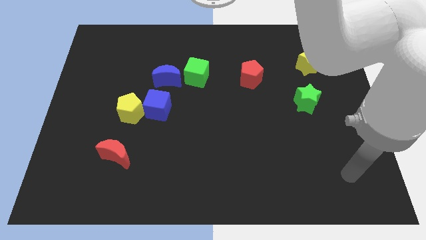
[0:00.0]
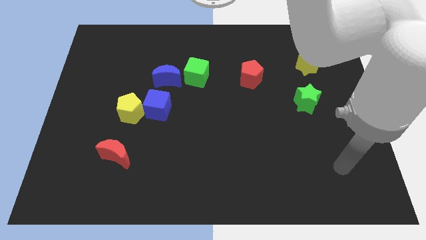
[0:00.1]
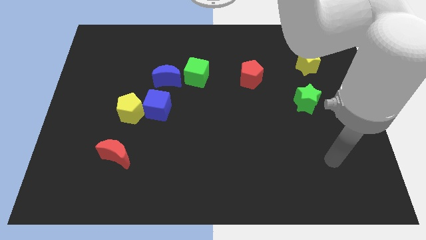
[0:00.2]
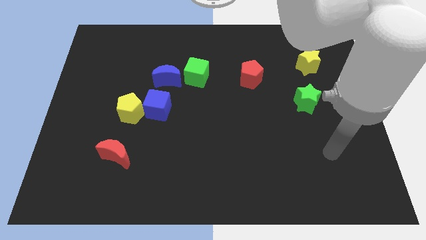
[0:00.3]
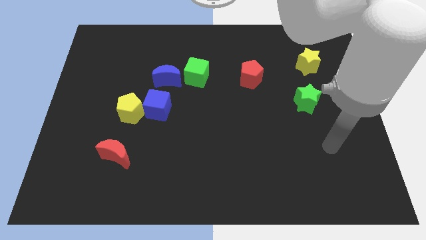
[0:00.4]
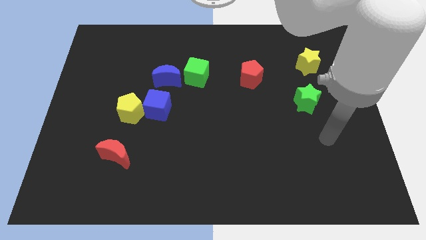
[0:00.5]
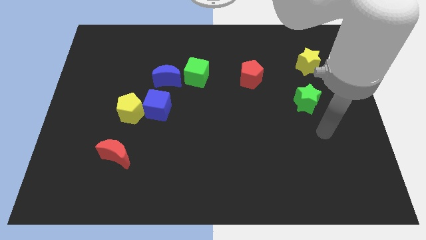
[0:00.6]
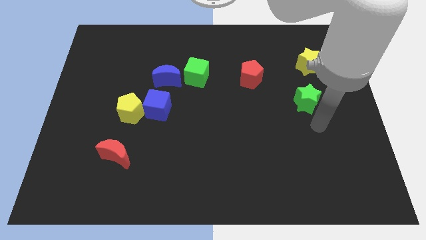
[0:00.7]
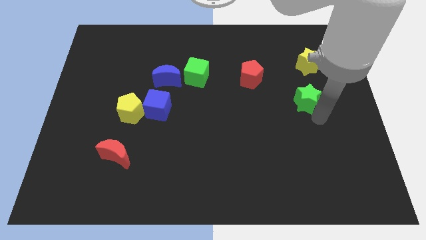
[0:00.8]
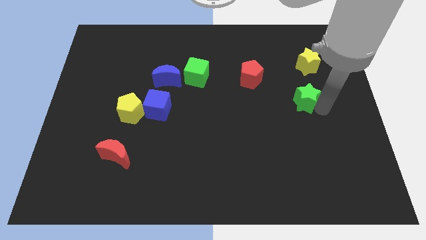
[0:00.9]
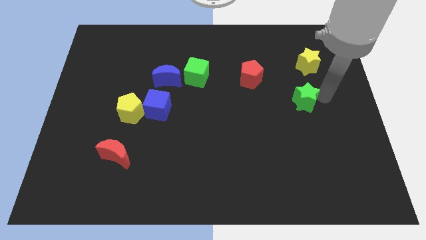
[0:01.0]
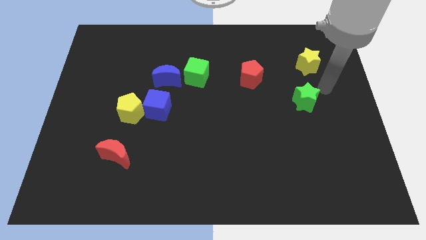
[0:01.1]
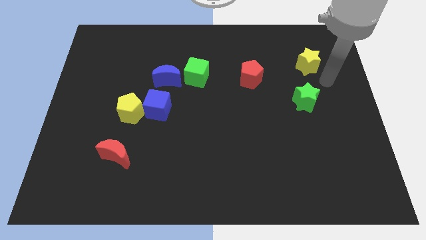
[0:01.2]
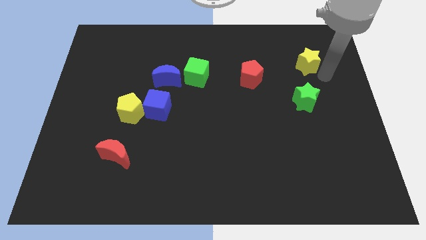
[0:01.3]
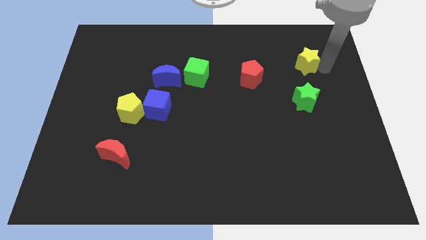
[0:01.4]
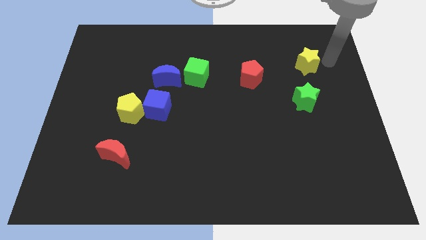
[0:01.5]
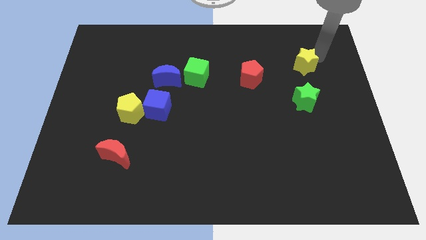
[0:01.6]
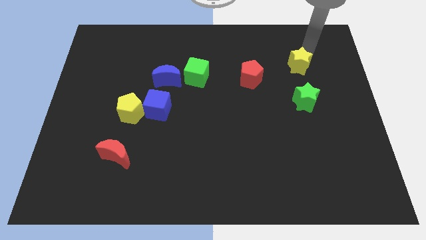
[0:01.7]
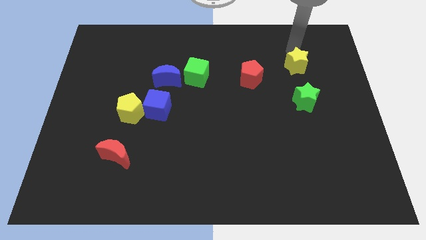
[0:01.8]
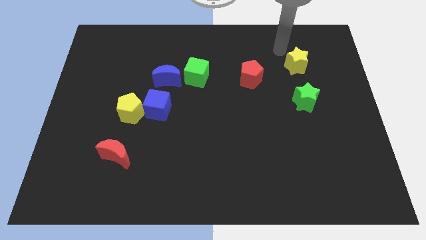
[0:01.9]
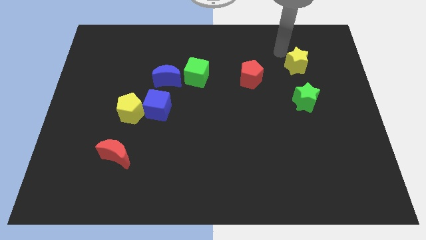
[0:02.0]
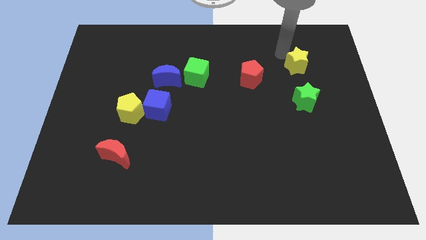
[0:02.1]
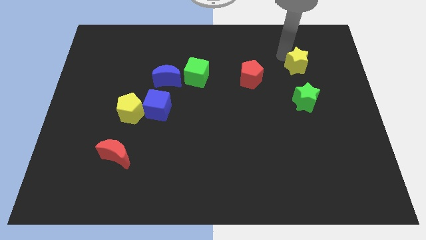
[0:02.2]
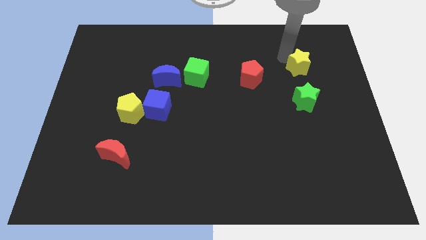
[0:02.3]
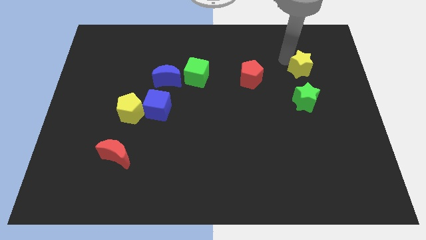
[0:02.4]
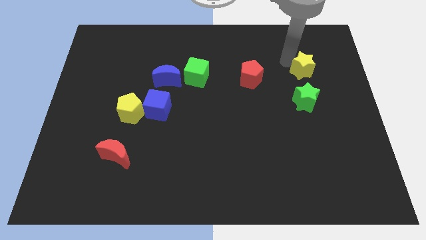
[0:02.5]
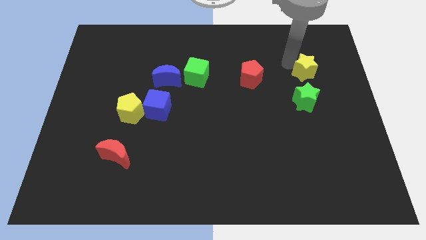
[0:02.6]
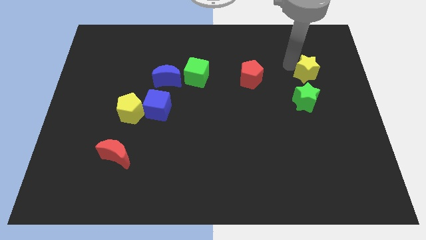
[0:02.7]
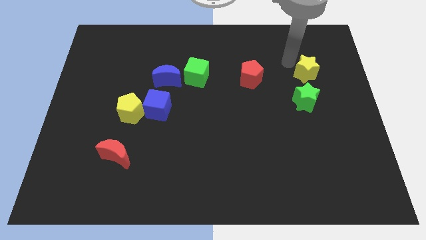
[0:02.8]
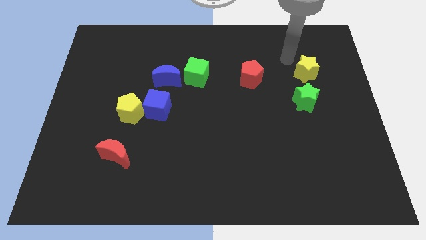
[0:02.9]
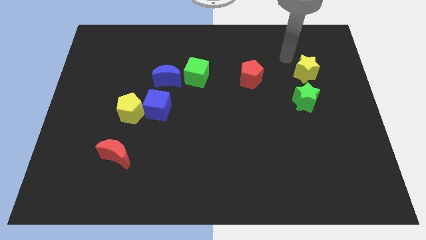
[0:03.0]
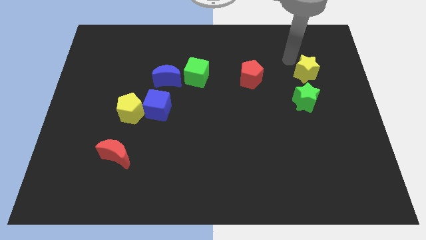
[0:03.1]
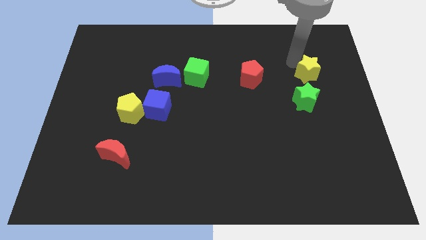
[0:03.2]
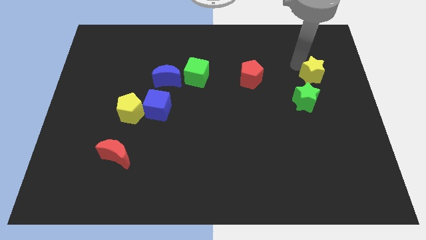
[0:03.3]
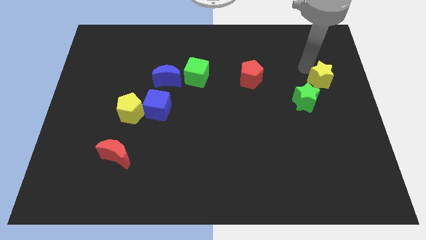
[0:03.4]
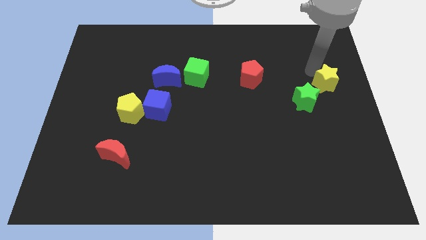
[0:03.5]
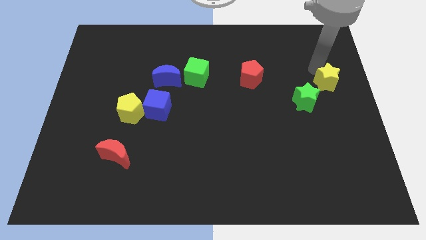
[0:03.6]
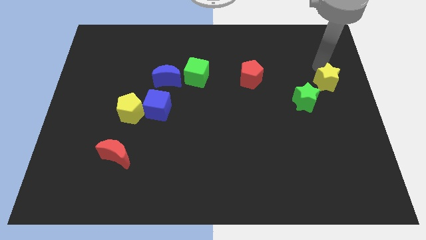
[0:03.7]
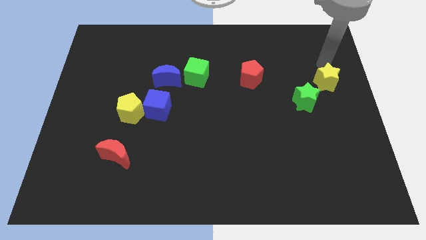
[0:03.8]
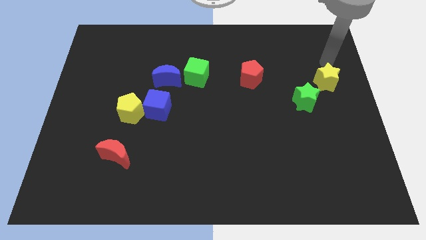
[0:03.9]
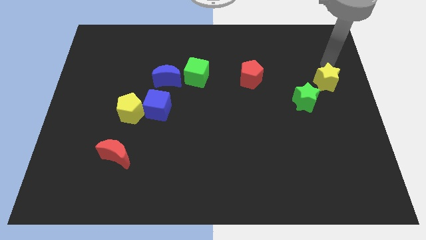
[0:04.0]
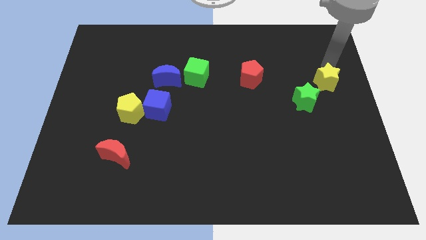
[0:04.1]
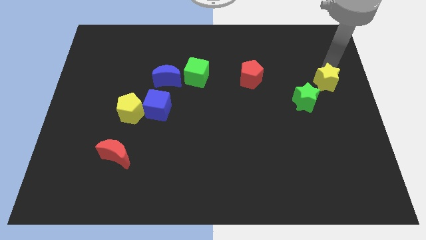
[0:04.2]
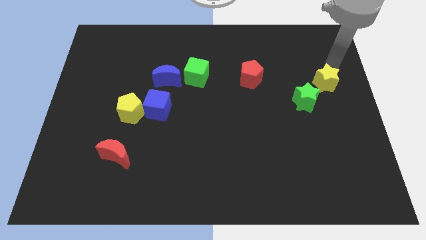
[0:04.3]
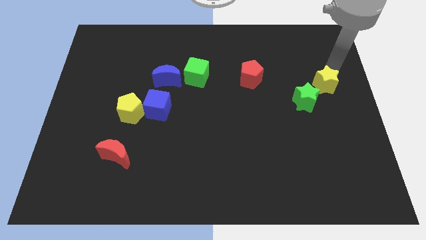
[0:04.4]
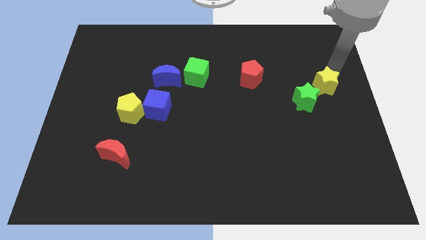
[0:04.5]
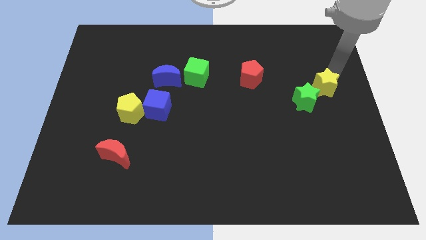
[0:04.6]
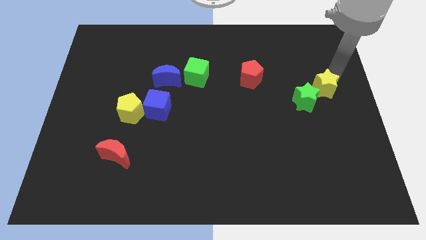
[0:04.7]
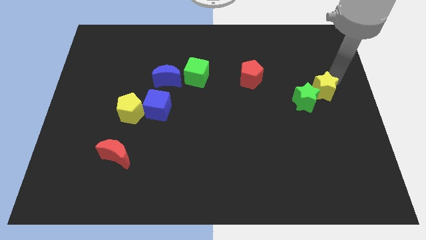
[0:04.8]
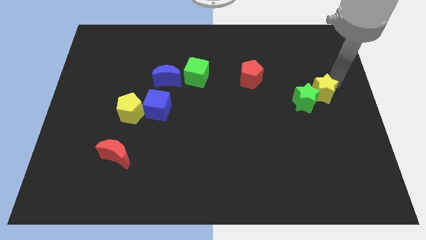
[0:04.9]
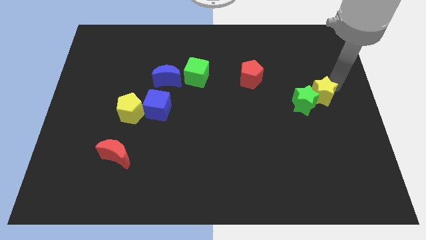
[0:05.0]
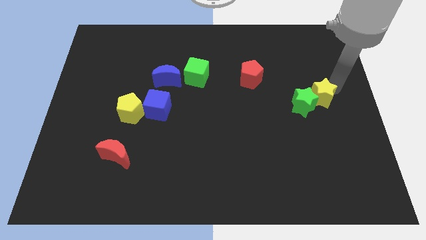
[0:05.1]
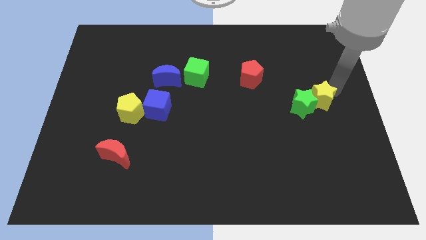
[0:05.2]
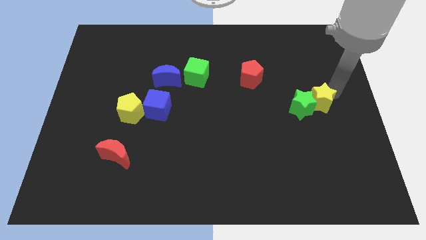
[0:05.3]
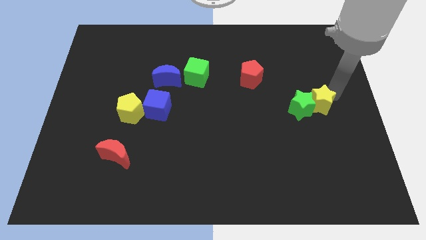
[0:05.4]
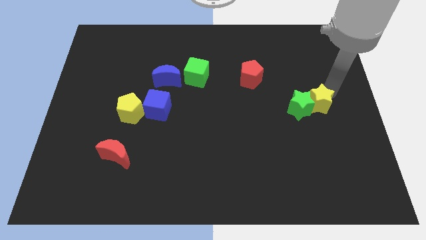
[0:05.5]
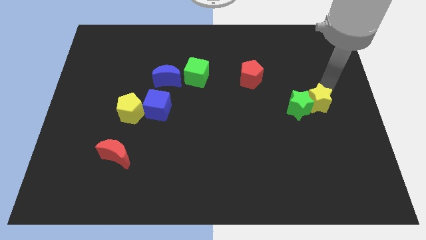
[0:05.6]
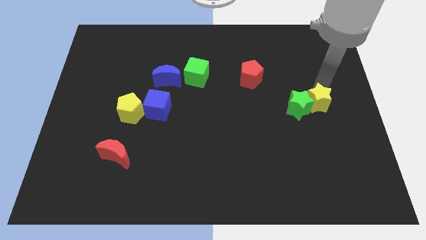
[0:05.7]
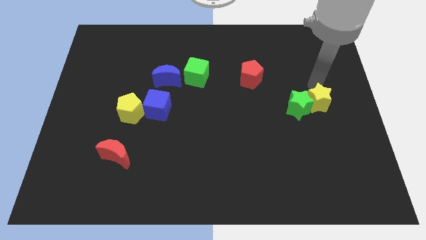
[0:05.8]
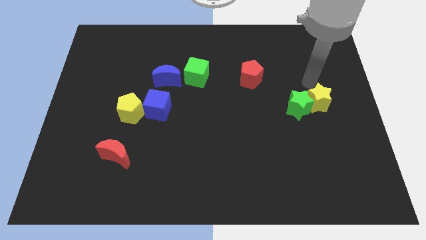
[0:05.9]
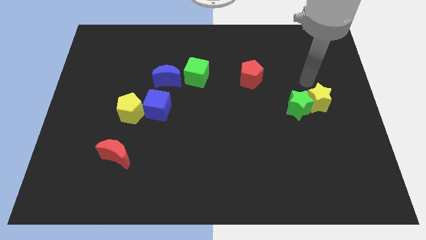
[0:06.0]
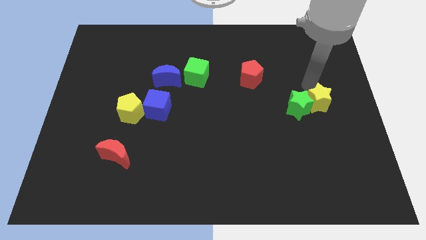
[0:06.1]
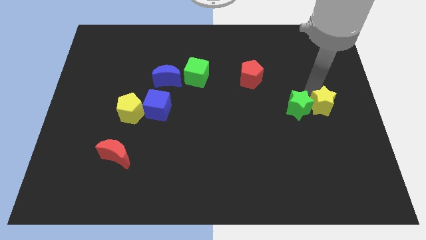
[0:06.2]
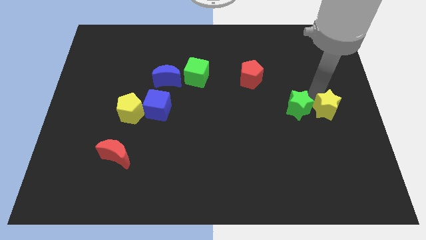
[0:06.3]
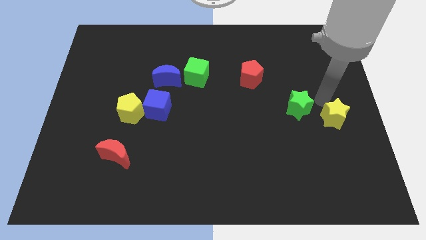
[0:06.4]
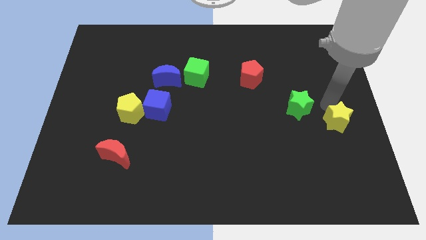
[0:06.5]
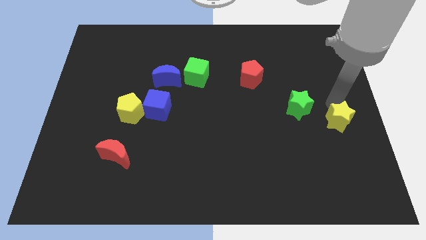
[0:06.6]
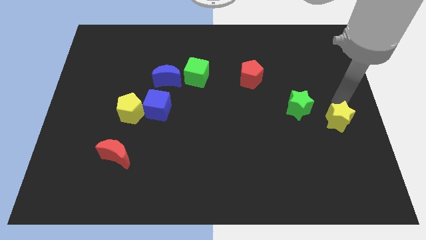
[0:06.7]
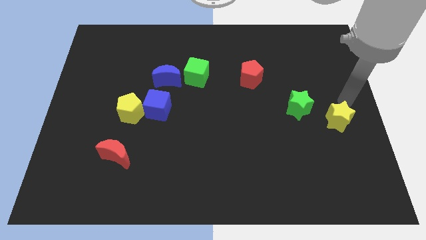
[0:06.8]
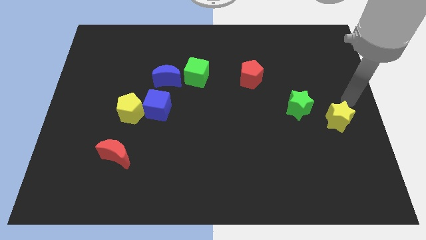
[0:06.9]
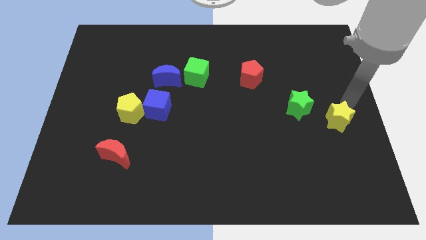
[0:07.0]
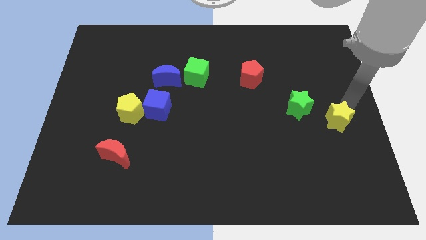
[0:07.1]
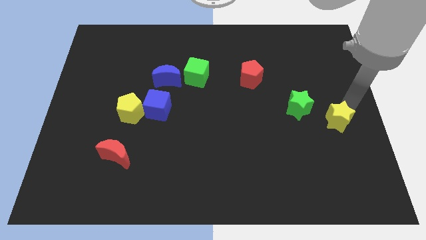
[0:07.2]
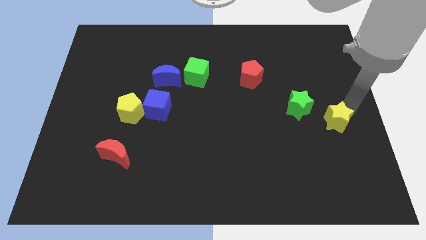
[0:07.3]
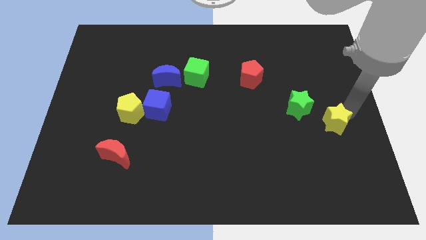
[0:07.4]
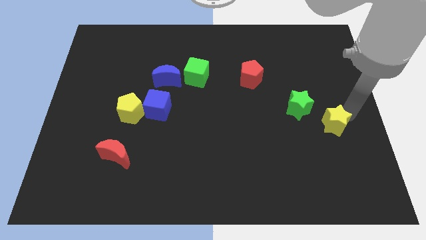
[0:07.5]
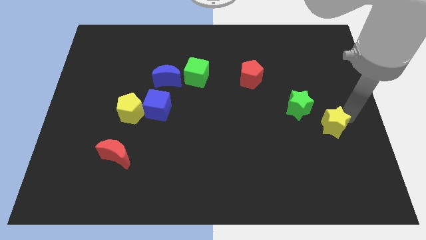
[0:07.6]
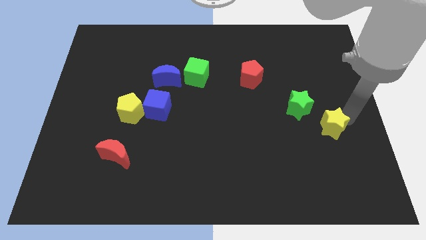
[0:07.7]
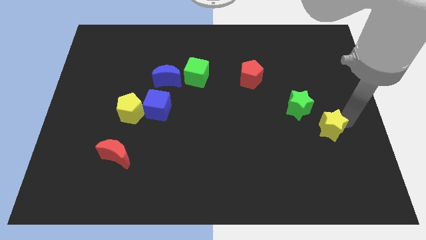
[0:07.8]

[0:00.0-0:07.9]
push the yellow star down

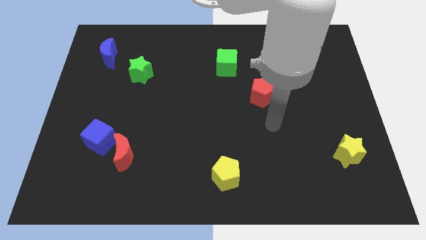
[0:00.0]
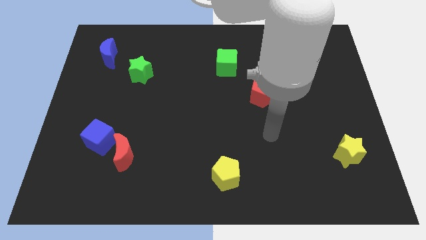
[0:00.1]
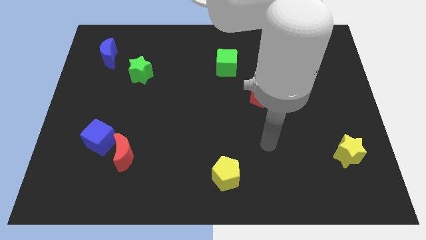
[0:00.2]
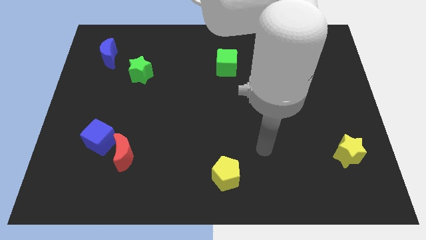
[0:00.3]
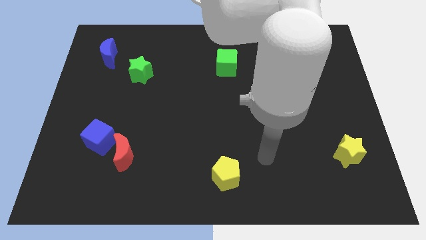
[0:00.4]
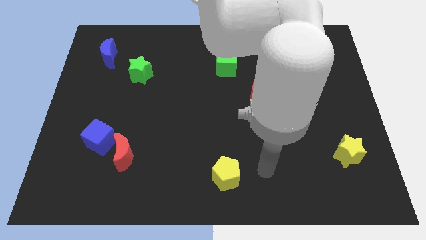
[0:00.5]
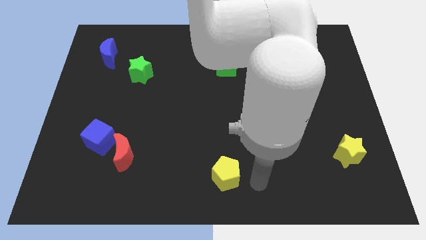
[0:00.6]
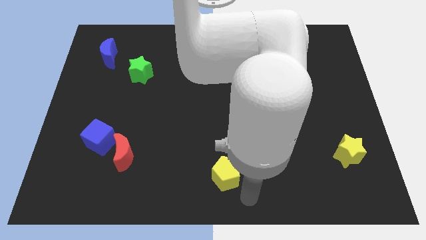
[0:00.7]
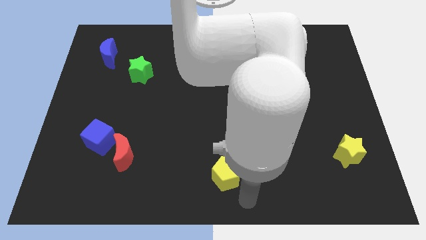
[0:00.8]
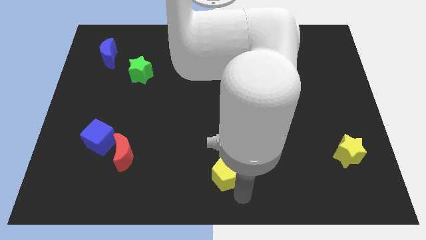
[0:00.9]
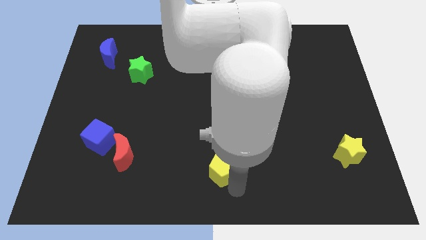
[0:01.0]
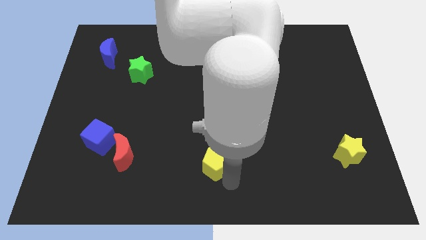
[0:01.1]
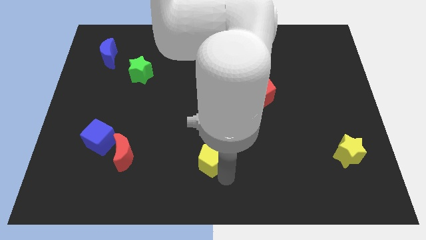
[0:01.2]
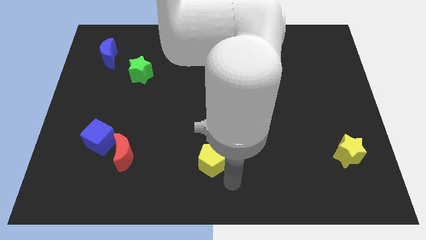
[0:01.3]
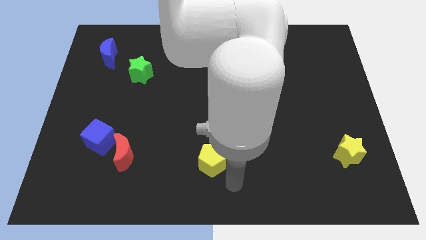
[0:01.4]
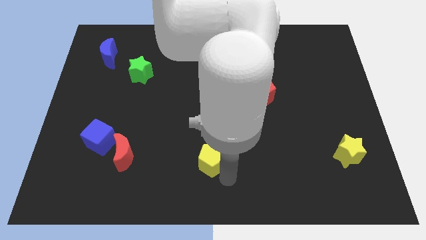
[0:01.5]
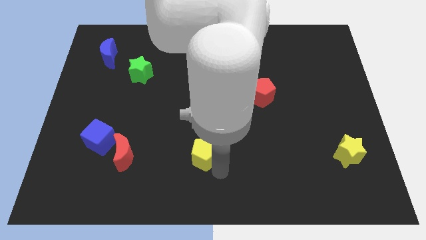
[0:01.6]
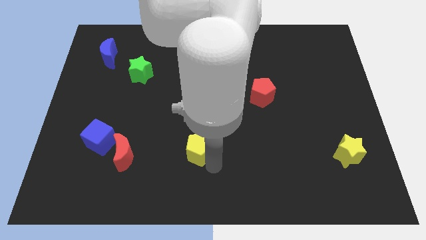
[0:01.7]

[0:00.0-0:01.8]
move the yellow pentagon diagonally upwards and left a bit
